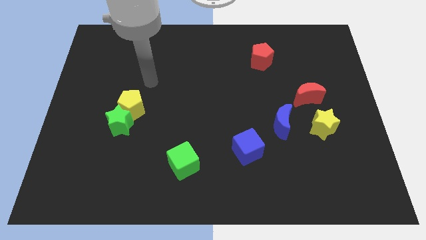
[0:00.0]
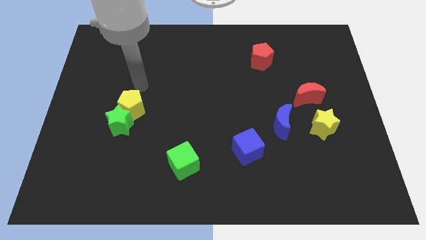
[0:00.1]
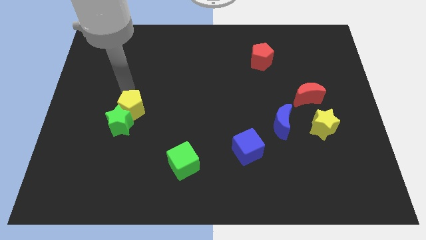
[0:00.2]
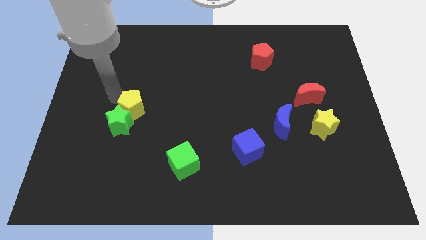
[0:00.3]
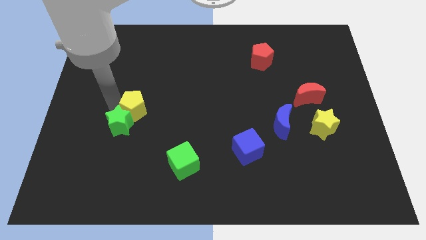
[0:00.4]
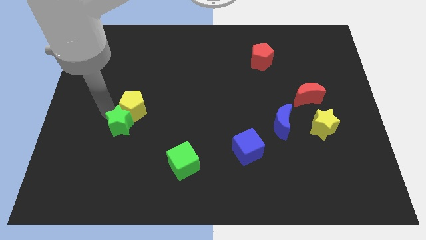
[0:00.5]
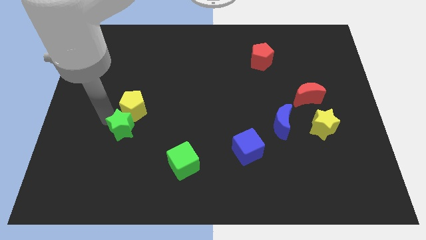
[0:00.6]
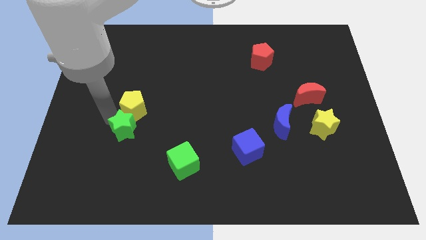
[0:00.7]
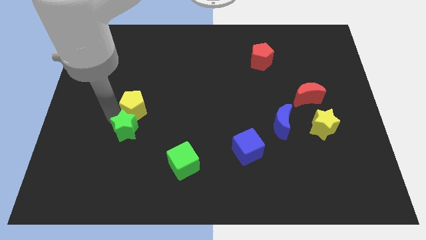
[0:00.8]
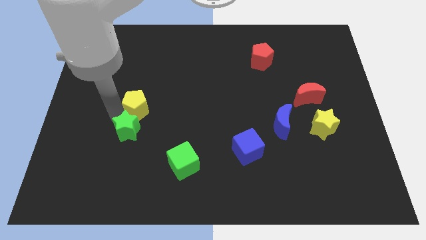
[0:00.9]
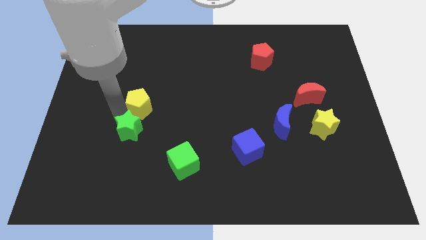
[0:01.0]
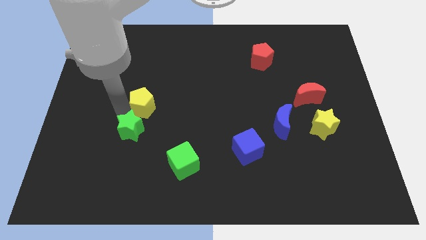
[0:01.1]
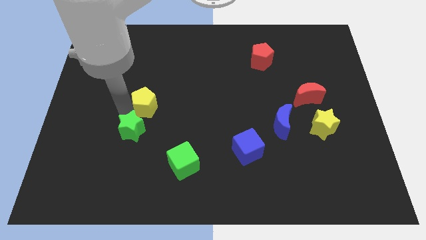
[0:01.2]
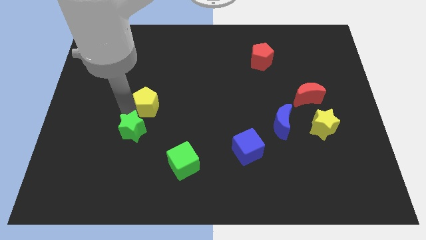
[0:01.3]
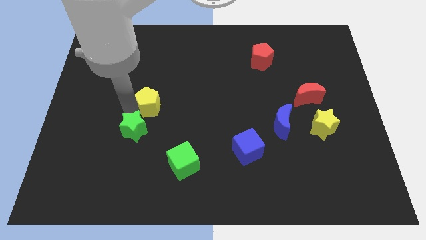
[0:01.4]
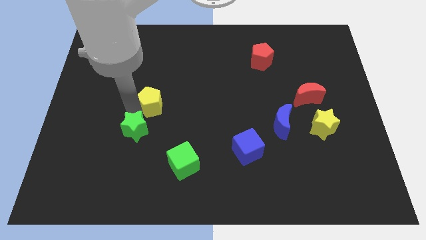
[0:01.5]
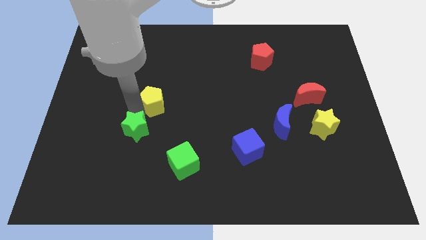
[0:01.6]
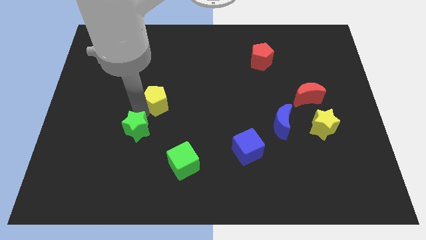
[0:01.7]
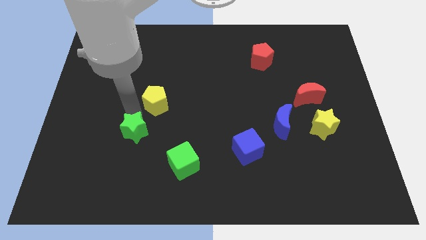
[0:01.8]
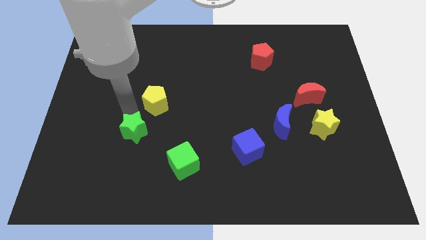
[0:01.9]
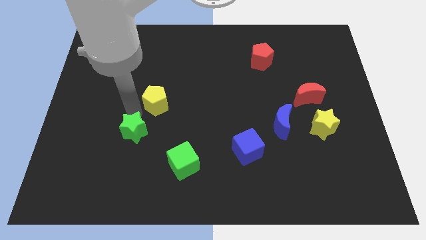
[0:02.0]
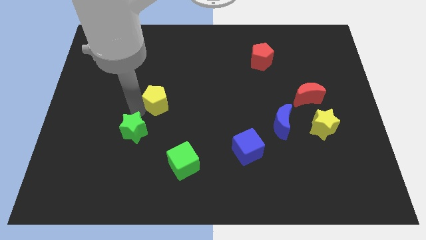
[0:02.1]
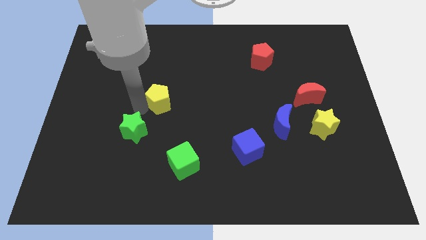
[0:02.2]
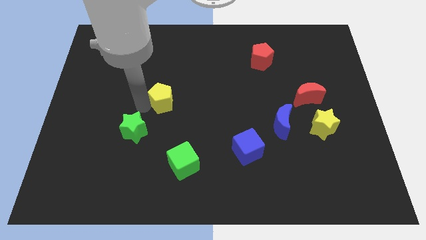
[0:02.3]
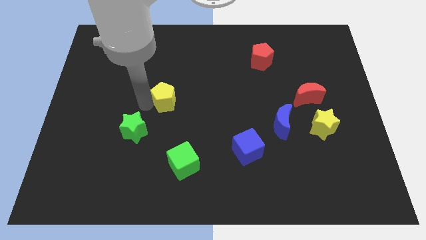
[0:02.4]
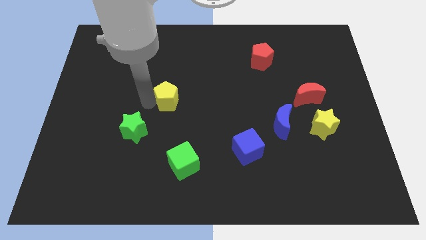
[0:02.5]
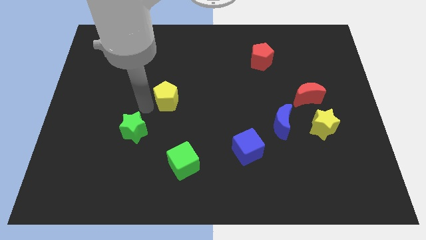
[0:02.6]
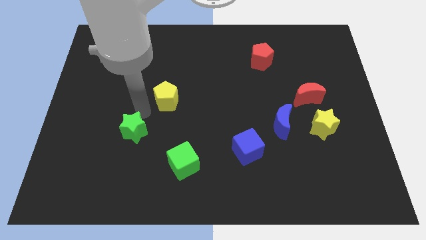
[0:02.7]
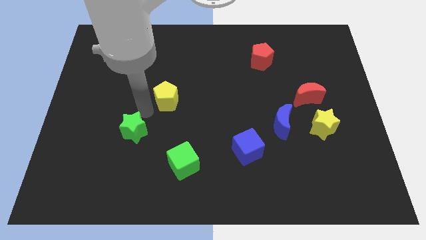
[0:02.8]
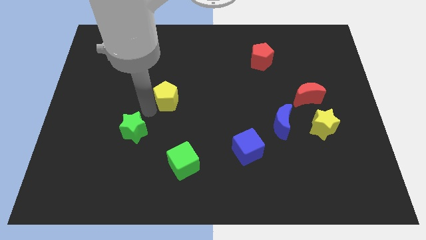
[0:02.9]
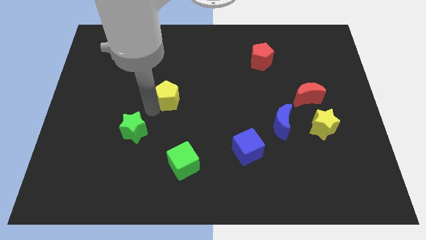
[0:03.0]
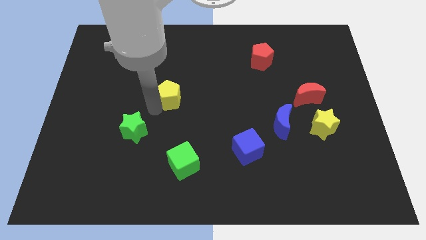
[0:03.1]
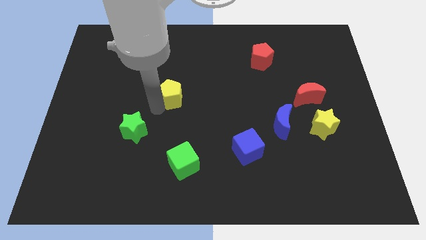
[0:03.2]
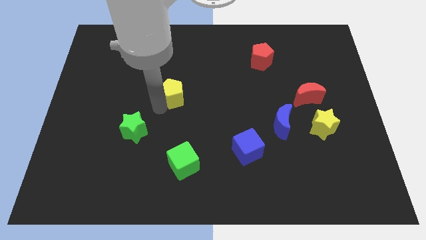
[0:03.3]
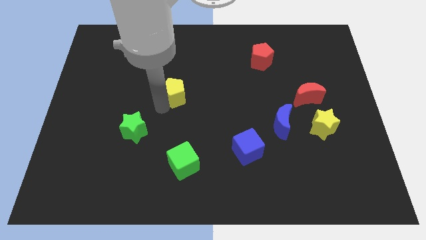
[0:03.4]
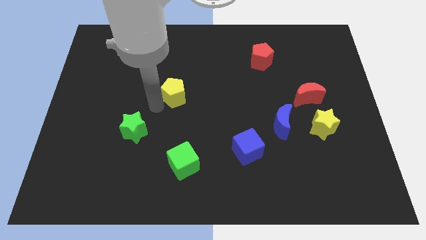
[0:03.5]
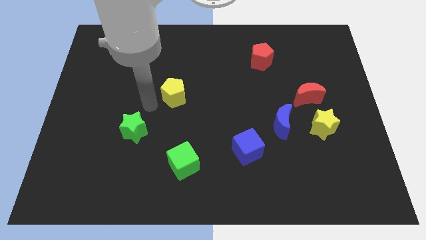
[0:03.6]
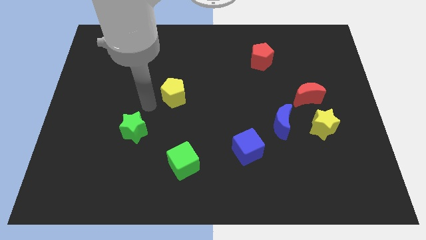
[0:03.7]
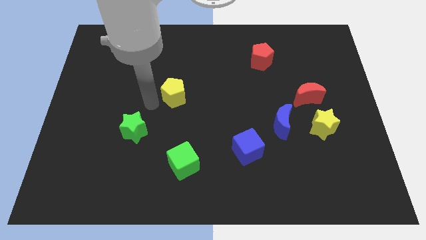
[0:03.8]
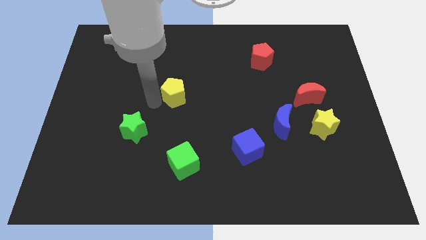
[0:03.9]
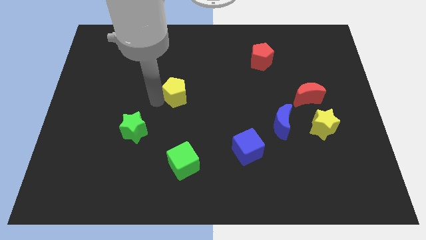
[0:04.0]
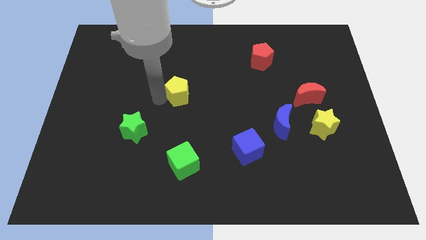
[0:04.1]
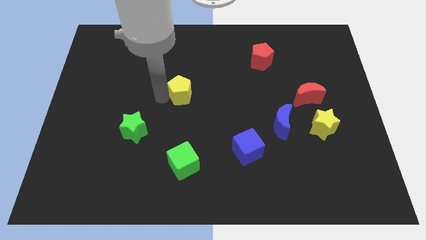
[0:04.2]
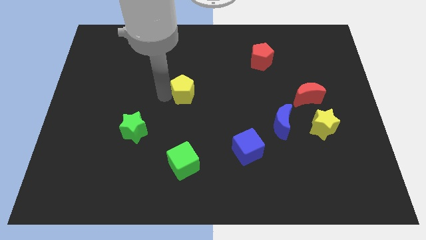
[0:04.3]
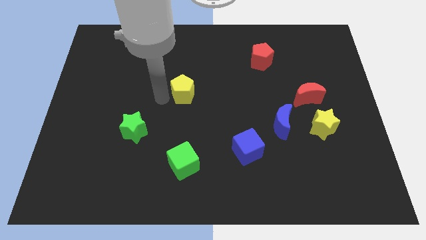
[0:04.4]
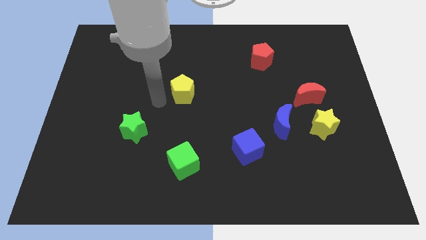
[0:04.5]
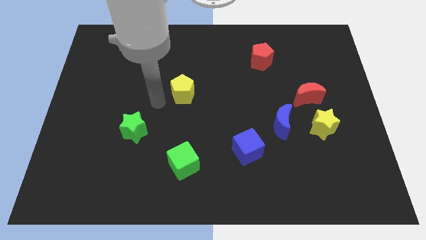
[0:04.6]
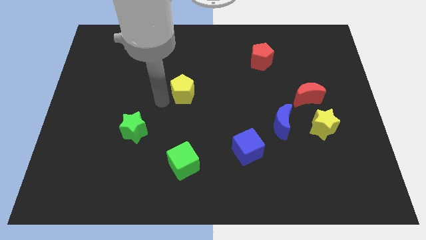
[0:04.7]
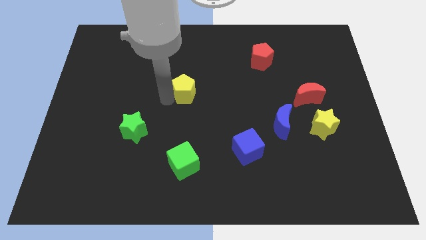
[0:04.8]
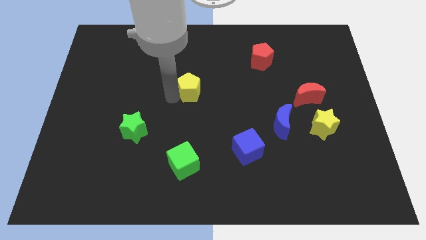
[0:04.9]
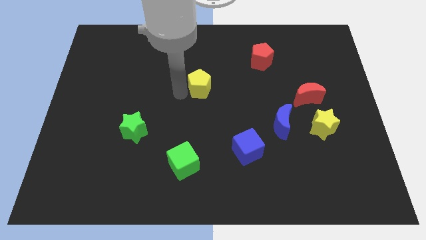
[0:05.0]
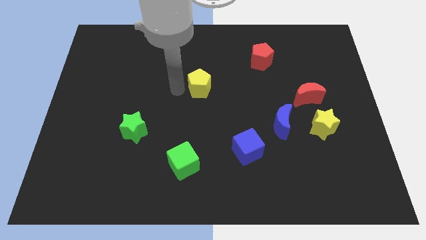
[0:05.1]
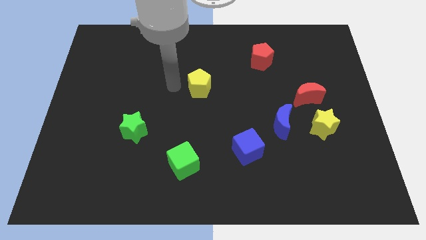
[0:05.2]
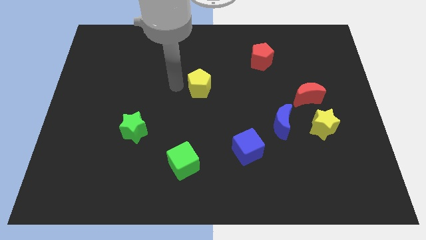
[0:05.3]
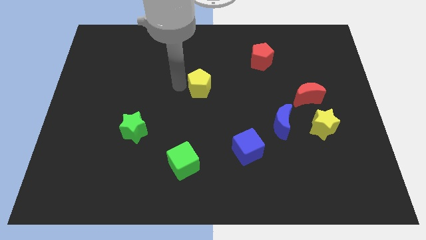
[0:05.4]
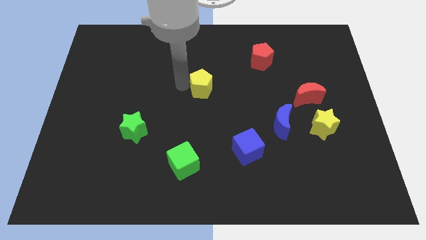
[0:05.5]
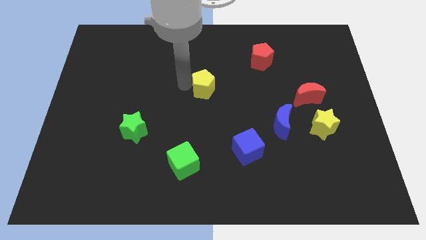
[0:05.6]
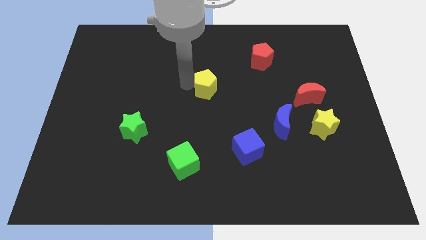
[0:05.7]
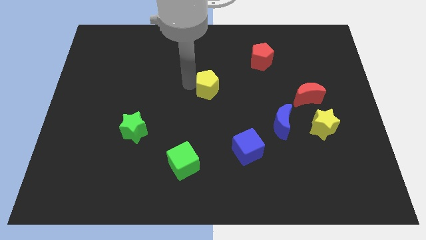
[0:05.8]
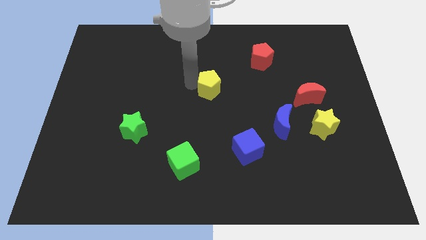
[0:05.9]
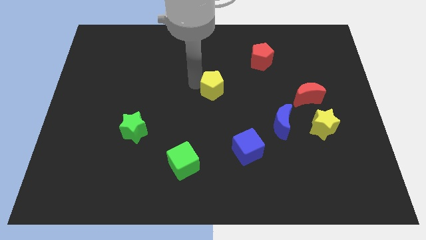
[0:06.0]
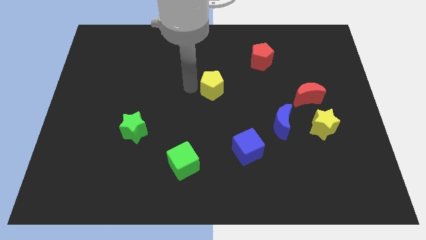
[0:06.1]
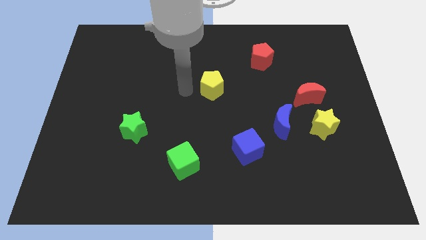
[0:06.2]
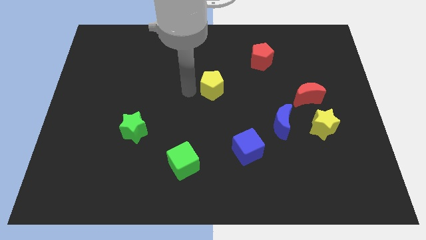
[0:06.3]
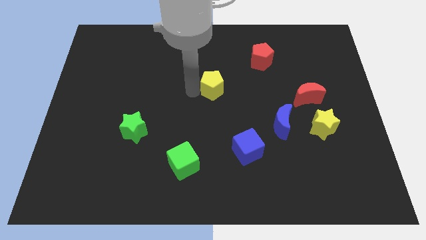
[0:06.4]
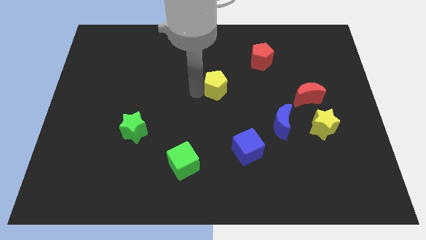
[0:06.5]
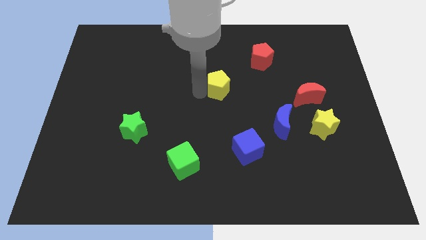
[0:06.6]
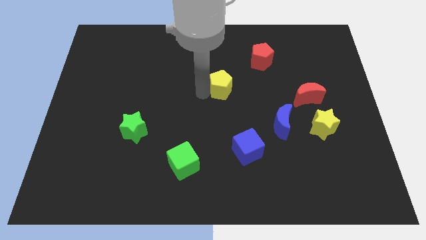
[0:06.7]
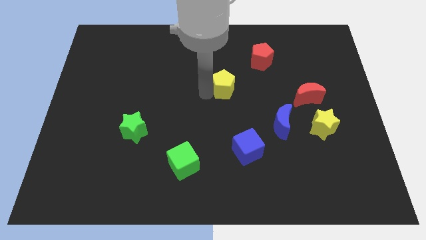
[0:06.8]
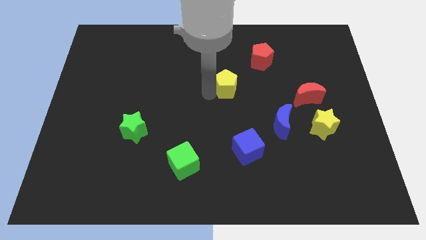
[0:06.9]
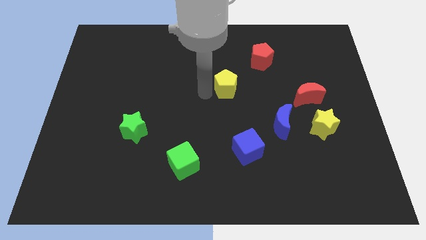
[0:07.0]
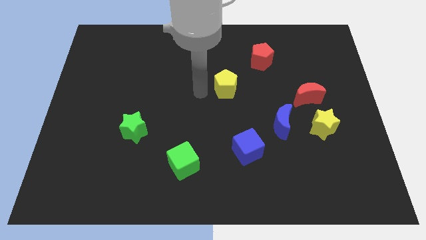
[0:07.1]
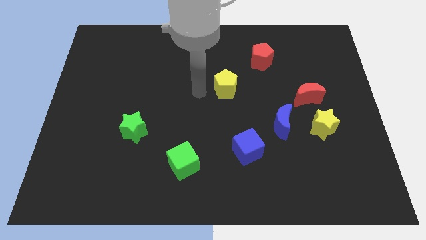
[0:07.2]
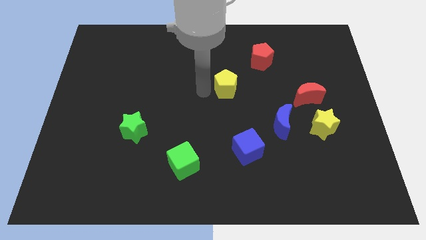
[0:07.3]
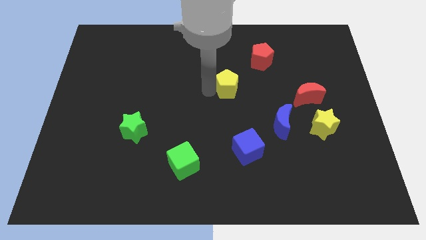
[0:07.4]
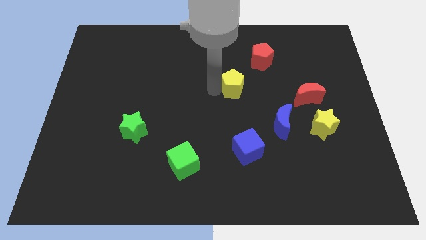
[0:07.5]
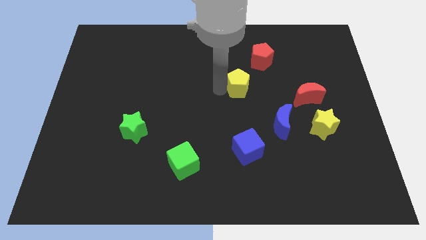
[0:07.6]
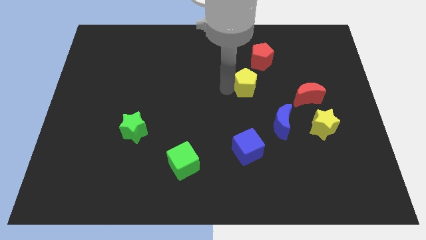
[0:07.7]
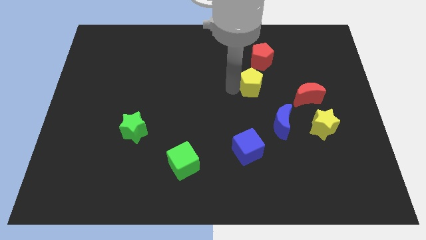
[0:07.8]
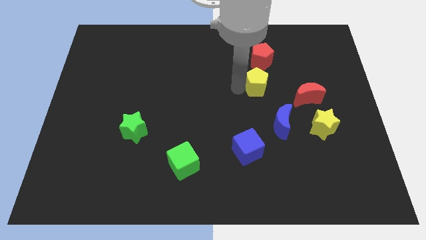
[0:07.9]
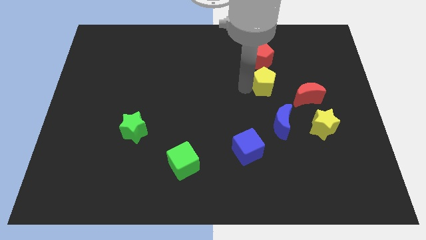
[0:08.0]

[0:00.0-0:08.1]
put the yellow pentagon diagonally up and to the left of the red moon
